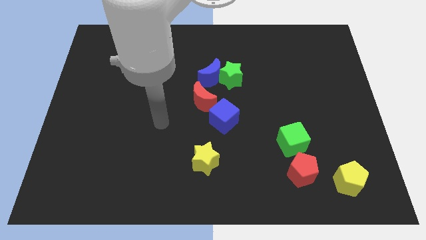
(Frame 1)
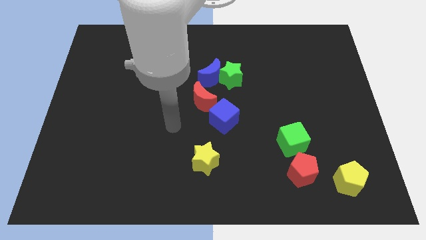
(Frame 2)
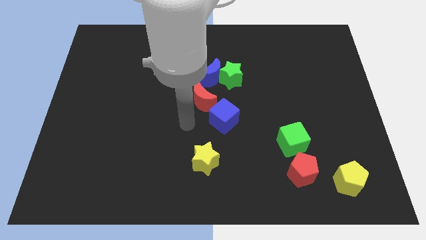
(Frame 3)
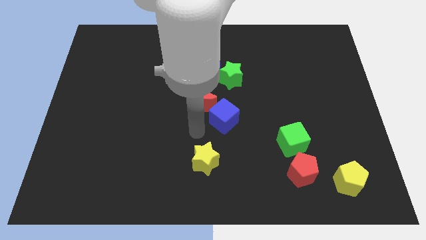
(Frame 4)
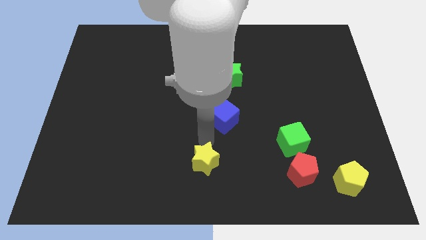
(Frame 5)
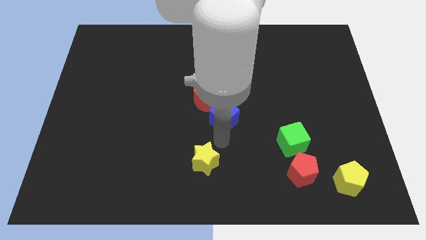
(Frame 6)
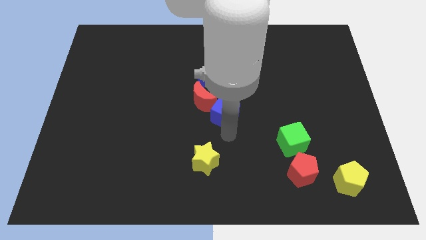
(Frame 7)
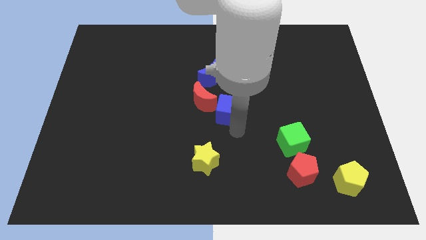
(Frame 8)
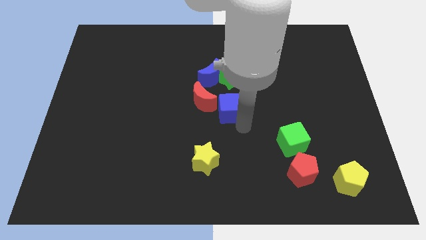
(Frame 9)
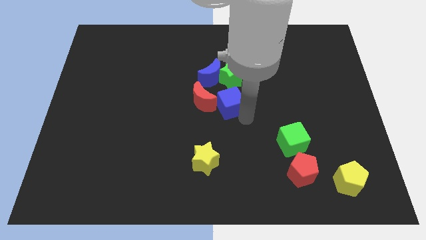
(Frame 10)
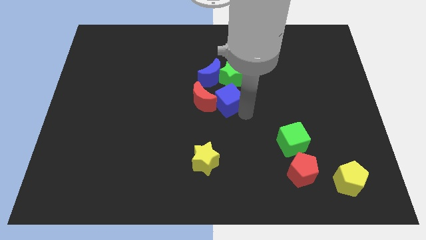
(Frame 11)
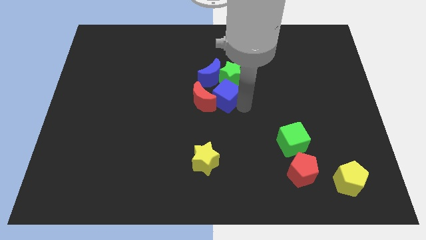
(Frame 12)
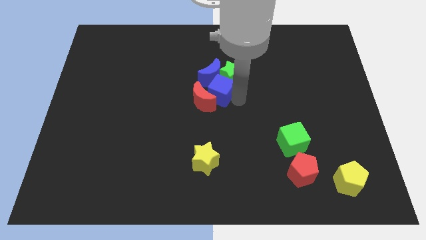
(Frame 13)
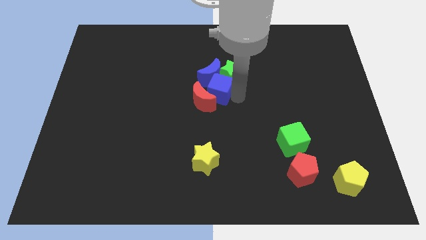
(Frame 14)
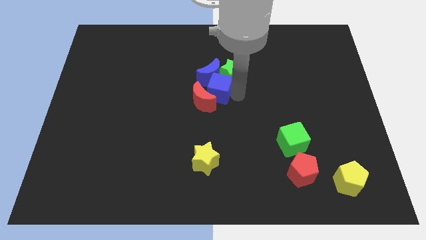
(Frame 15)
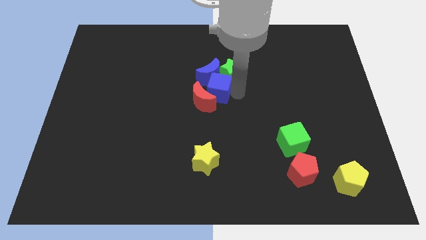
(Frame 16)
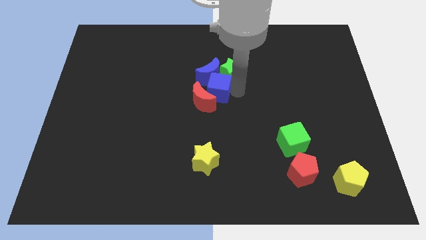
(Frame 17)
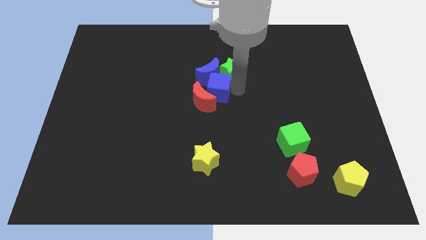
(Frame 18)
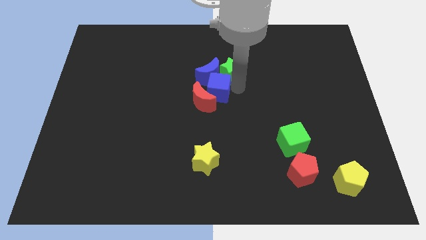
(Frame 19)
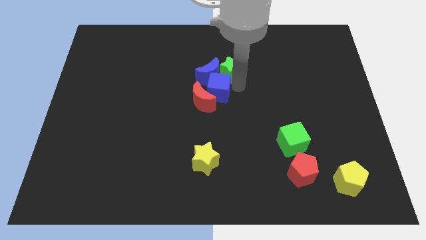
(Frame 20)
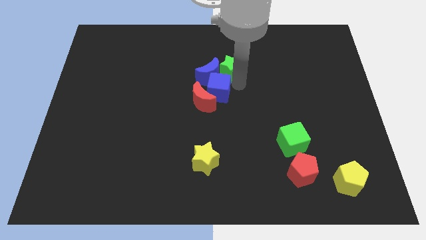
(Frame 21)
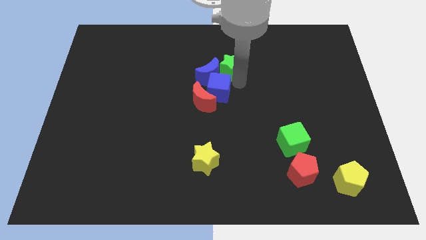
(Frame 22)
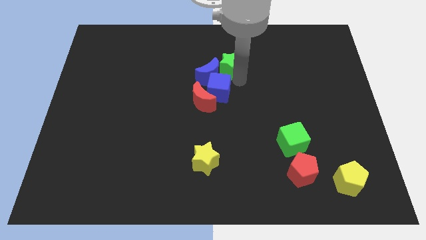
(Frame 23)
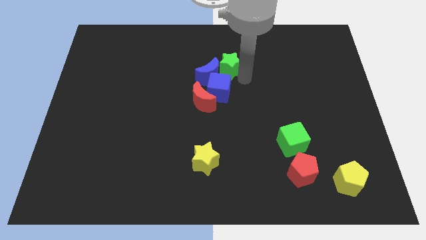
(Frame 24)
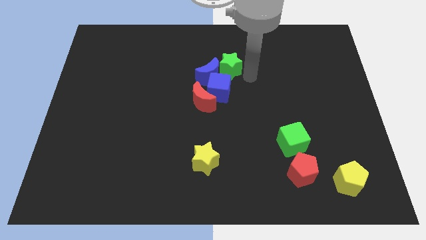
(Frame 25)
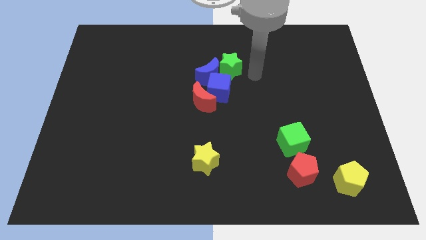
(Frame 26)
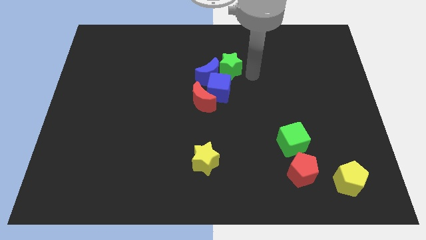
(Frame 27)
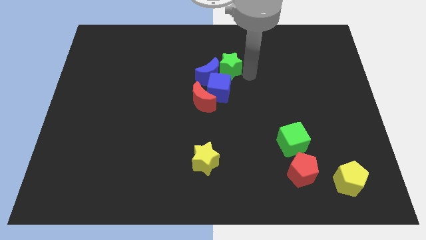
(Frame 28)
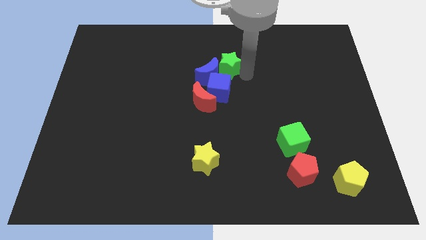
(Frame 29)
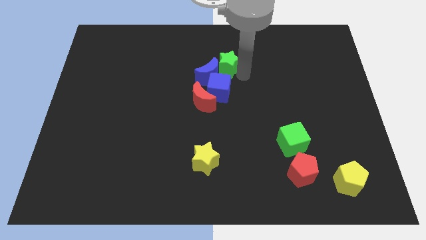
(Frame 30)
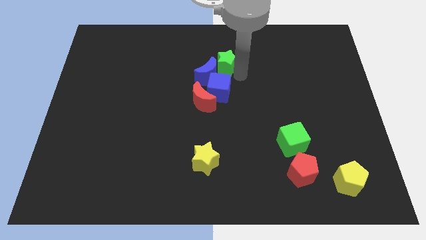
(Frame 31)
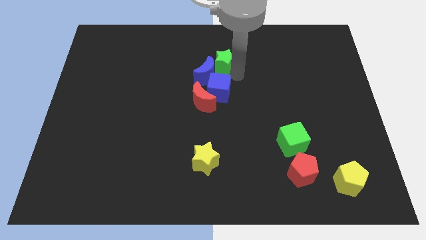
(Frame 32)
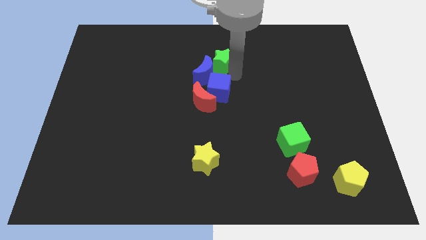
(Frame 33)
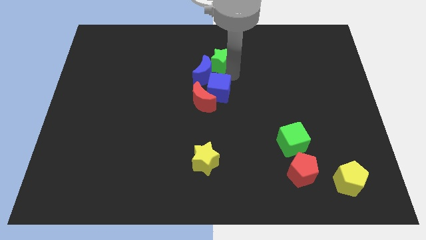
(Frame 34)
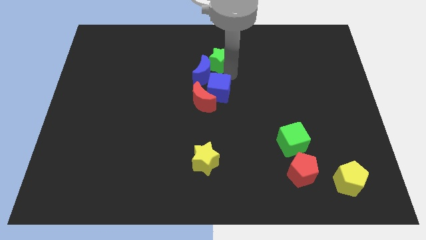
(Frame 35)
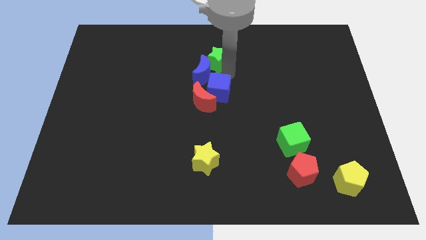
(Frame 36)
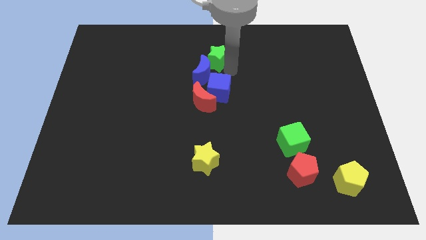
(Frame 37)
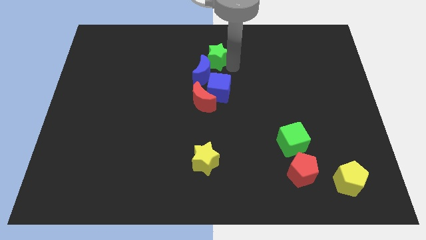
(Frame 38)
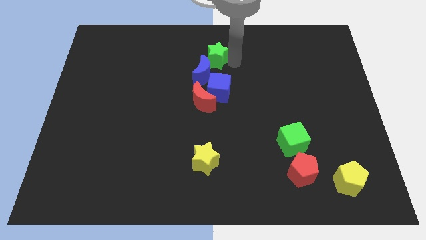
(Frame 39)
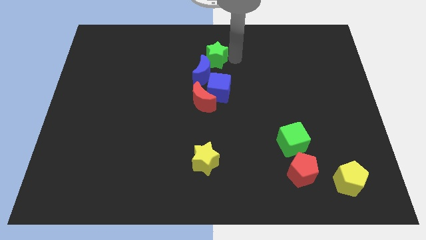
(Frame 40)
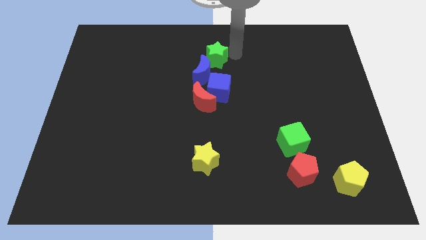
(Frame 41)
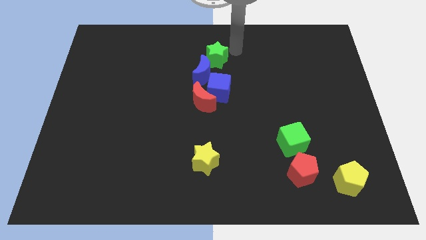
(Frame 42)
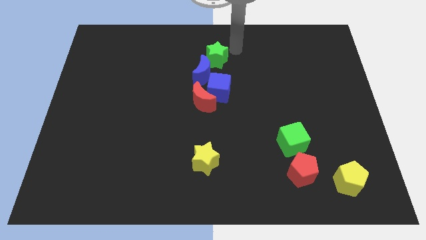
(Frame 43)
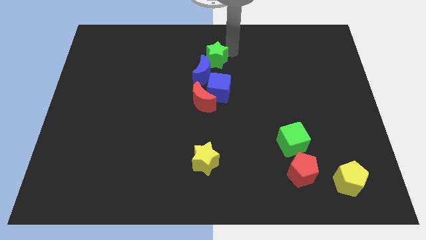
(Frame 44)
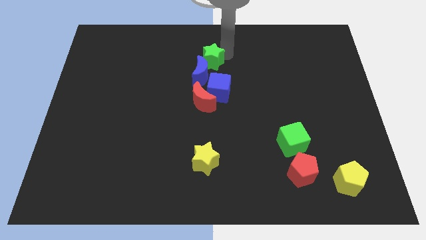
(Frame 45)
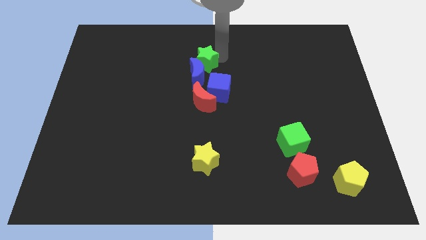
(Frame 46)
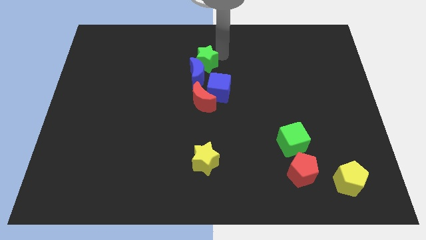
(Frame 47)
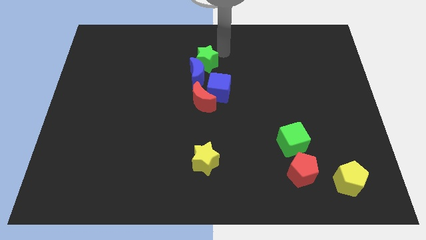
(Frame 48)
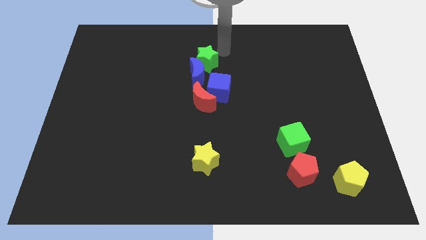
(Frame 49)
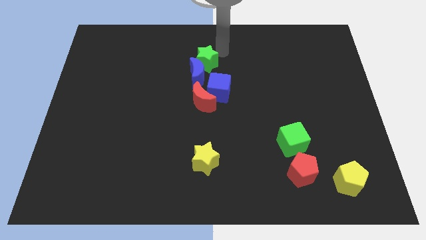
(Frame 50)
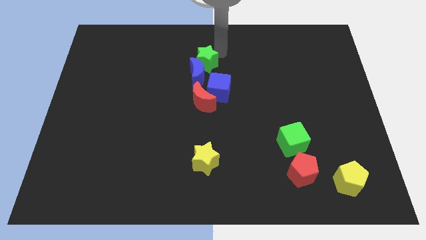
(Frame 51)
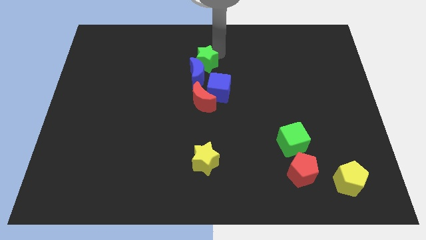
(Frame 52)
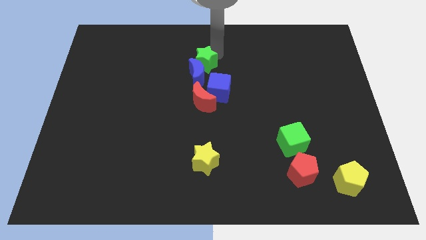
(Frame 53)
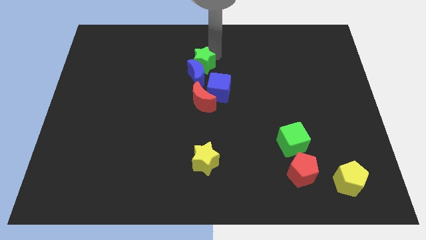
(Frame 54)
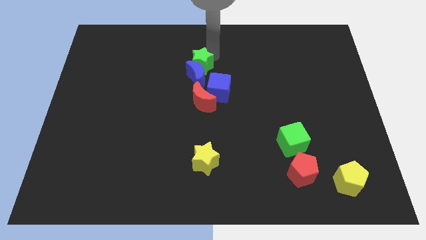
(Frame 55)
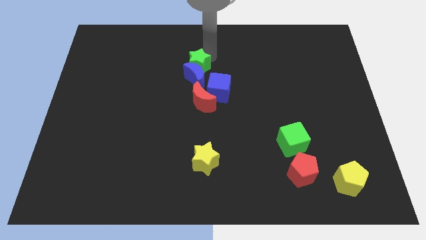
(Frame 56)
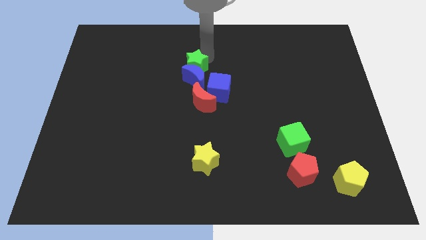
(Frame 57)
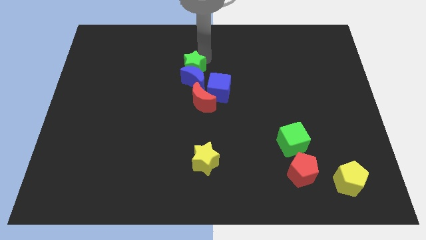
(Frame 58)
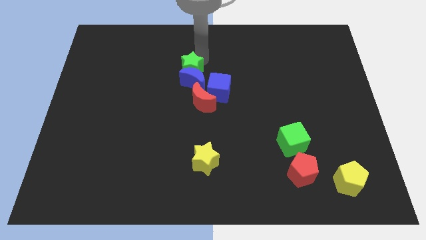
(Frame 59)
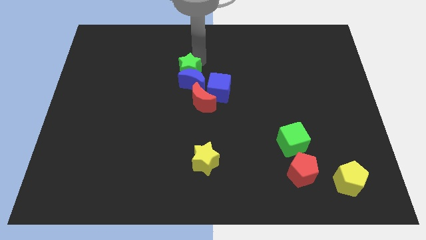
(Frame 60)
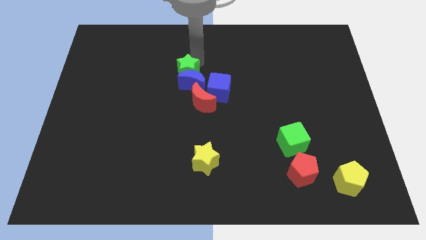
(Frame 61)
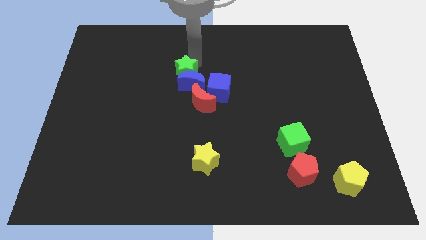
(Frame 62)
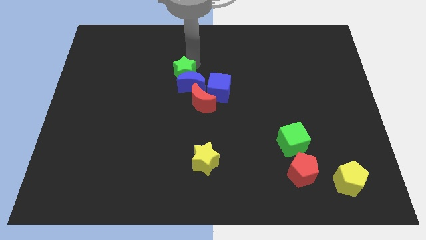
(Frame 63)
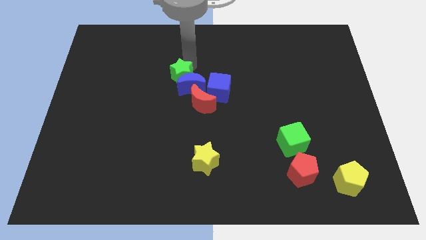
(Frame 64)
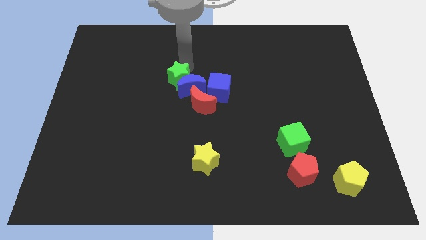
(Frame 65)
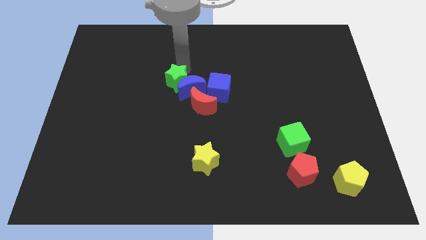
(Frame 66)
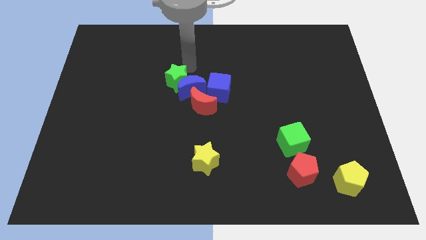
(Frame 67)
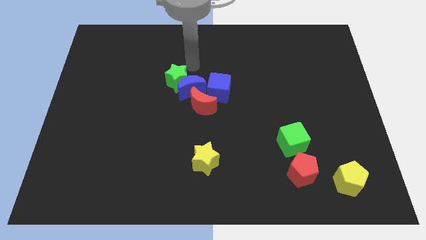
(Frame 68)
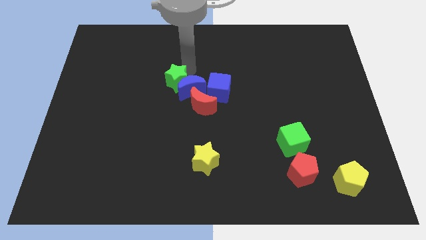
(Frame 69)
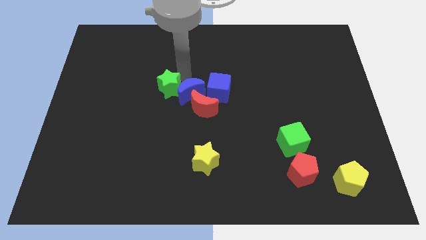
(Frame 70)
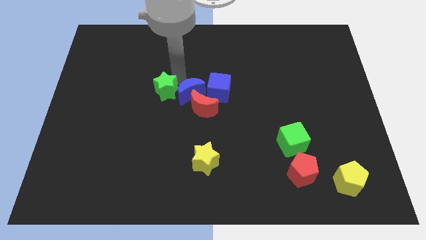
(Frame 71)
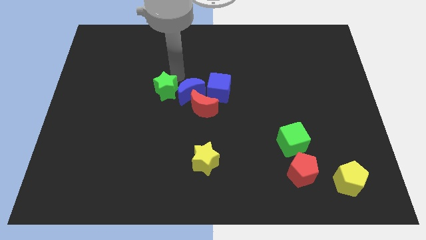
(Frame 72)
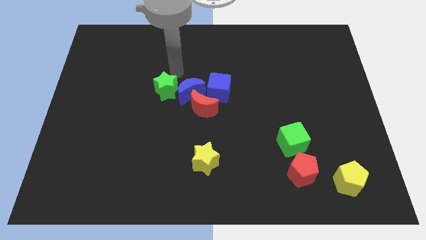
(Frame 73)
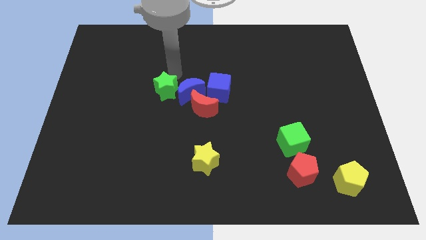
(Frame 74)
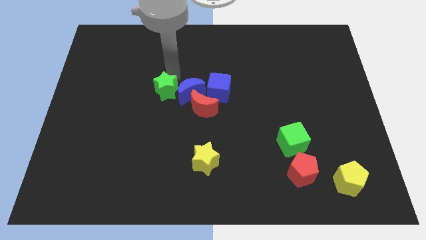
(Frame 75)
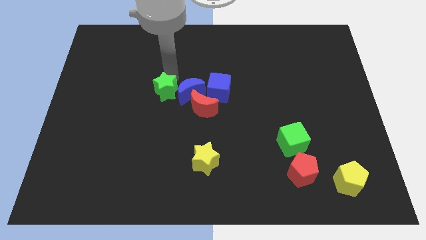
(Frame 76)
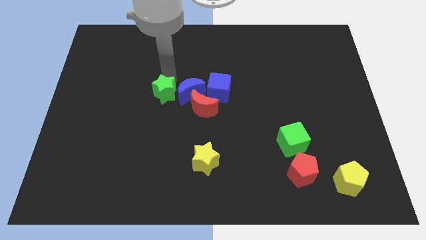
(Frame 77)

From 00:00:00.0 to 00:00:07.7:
push the green star to the left side of the red moon

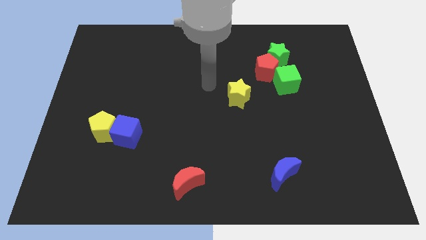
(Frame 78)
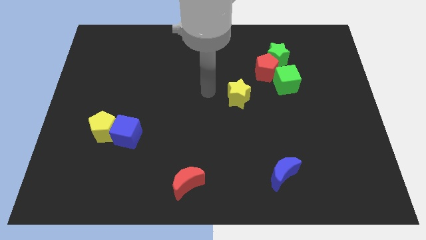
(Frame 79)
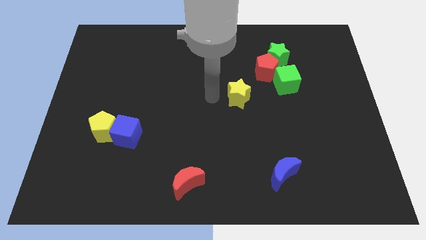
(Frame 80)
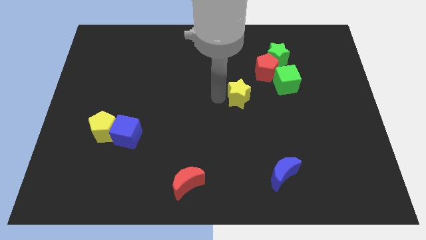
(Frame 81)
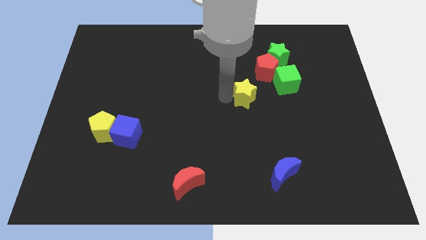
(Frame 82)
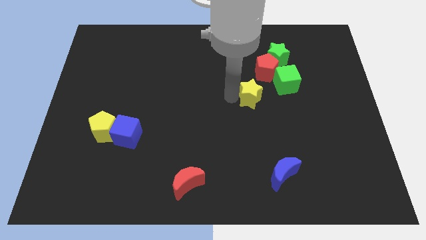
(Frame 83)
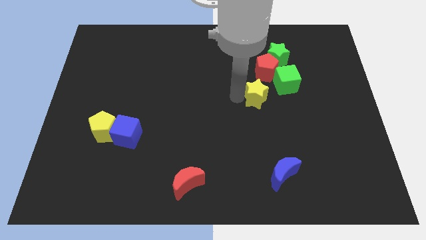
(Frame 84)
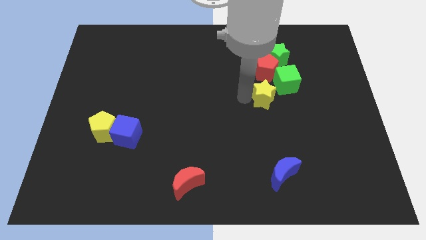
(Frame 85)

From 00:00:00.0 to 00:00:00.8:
put the yellow star below the green star
